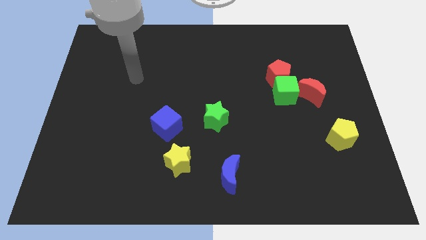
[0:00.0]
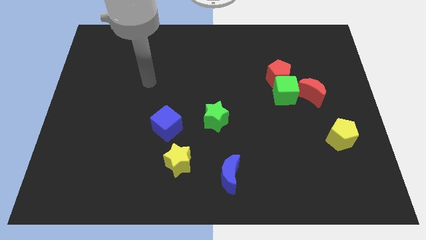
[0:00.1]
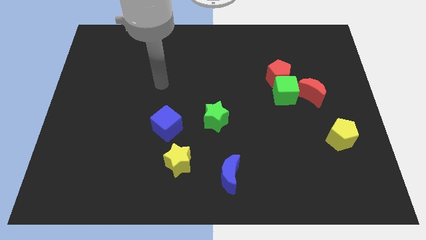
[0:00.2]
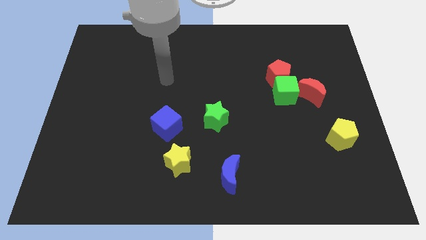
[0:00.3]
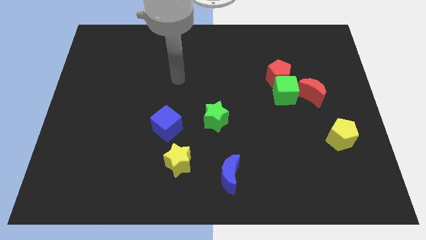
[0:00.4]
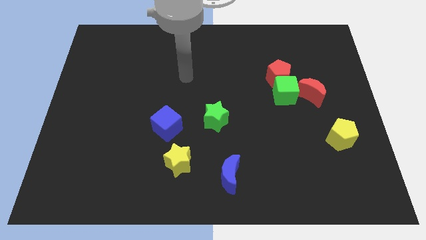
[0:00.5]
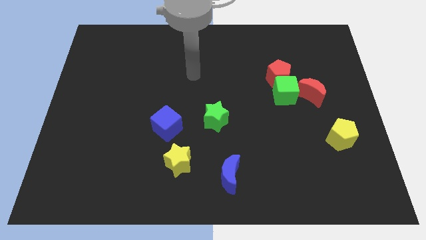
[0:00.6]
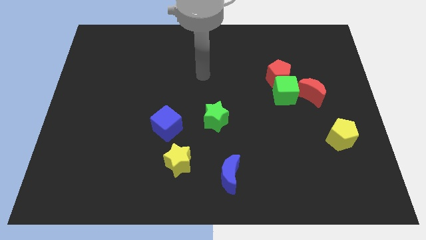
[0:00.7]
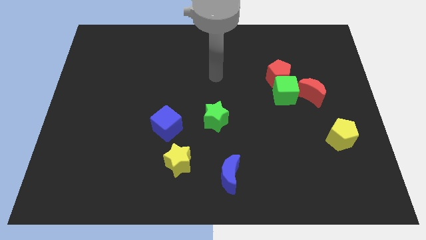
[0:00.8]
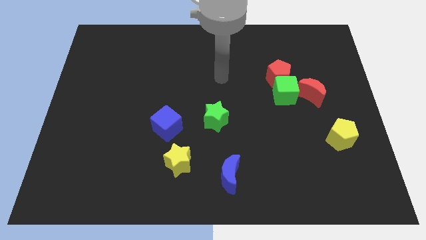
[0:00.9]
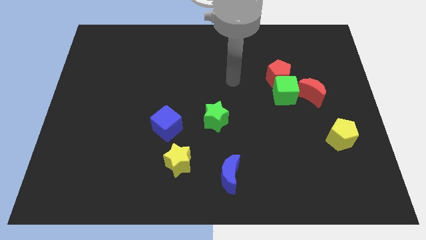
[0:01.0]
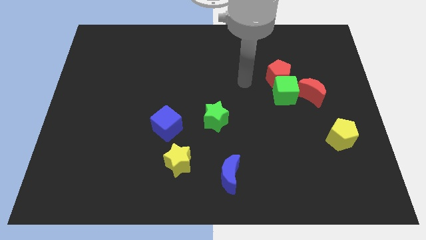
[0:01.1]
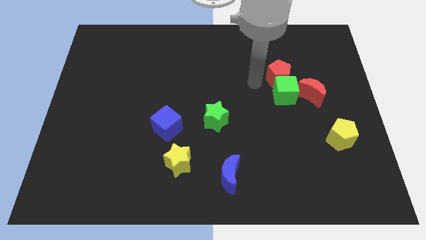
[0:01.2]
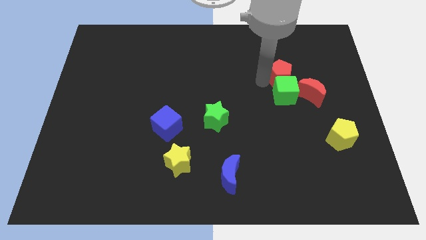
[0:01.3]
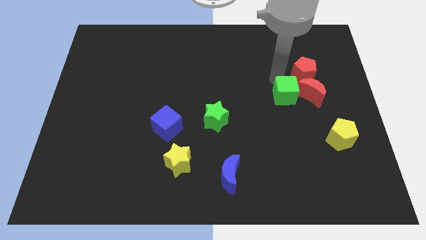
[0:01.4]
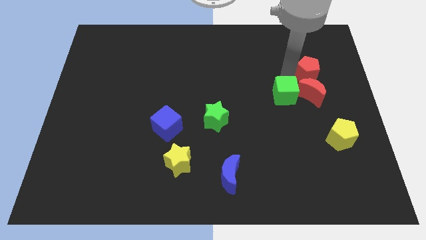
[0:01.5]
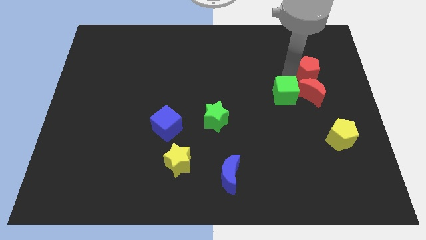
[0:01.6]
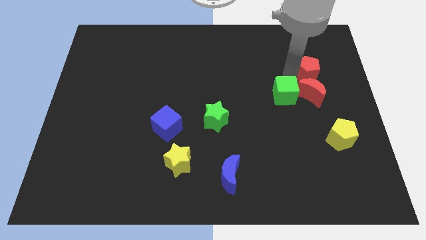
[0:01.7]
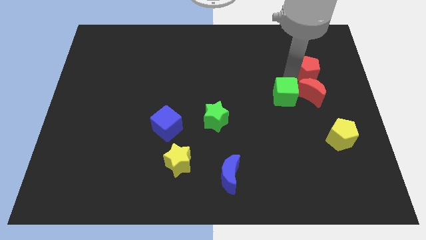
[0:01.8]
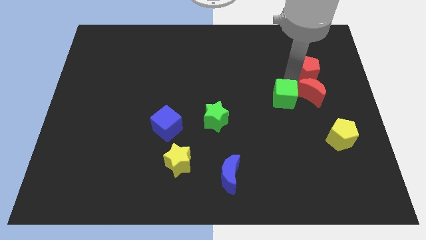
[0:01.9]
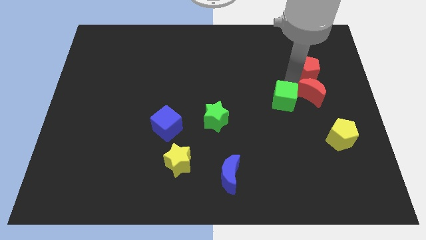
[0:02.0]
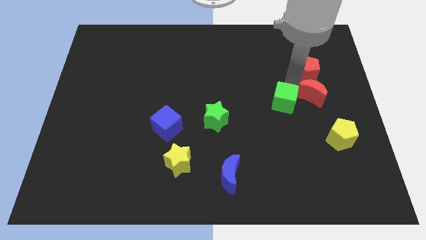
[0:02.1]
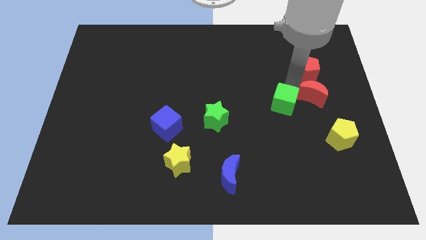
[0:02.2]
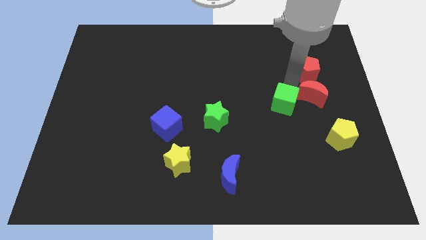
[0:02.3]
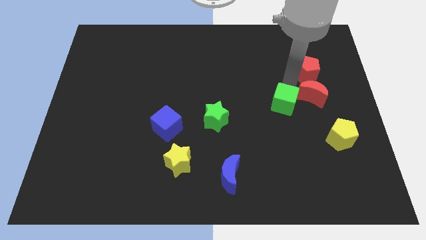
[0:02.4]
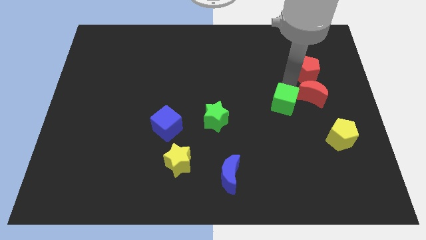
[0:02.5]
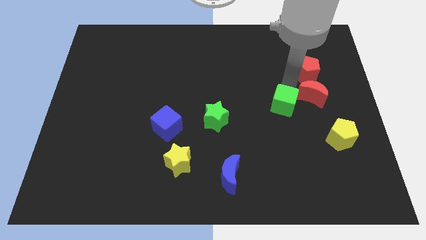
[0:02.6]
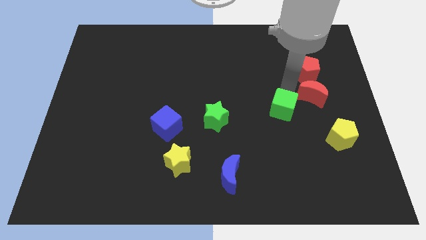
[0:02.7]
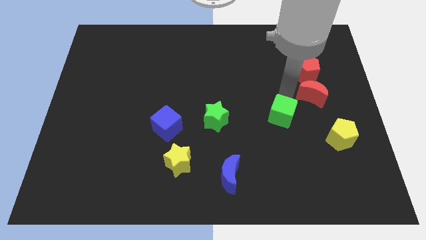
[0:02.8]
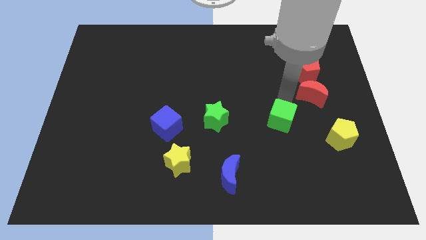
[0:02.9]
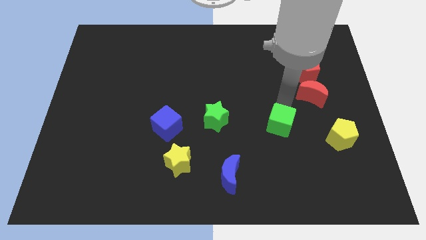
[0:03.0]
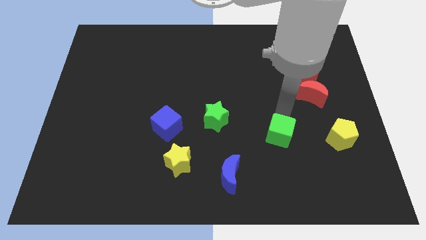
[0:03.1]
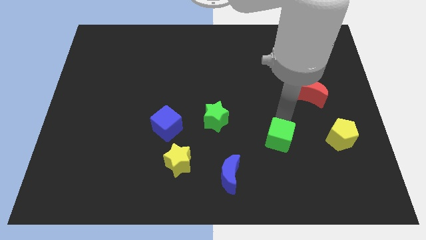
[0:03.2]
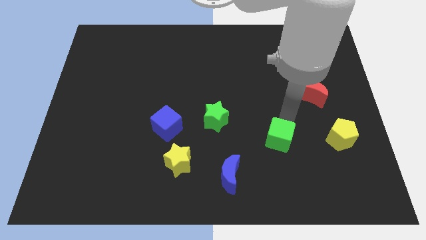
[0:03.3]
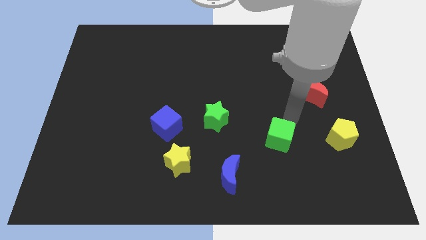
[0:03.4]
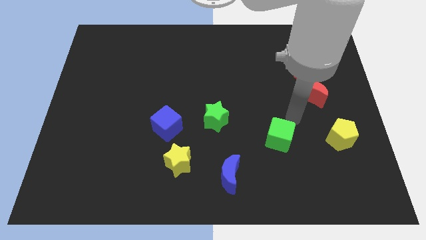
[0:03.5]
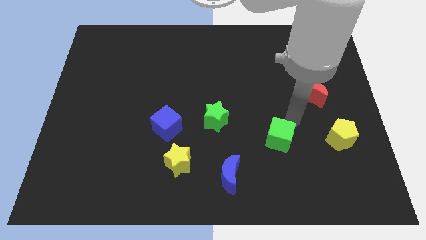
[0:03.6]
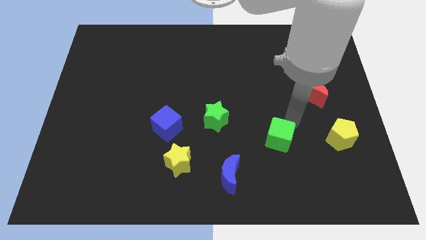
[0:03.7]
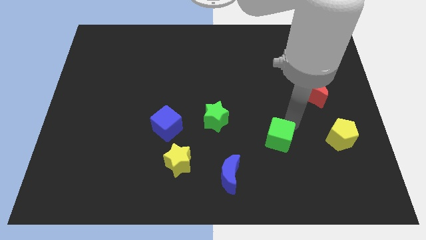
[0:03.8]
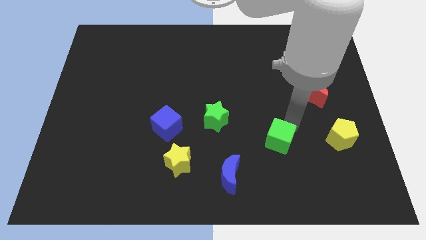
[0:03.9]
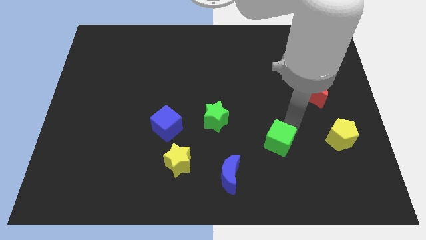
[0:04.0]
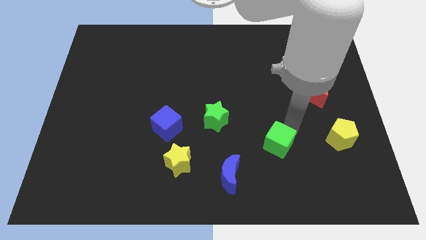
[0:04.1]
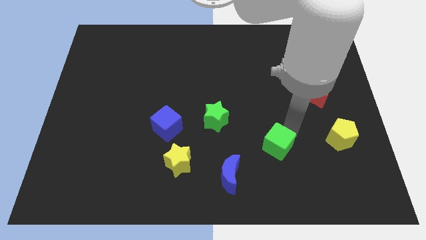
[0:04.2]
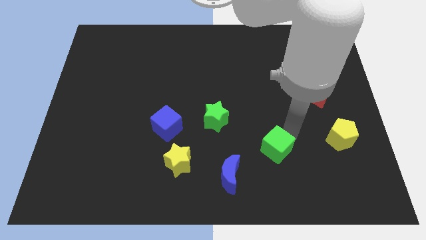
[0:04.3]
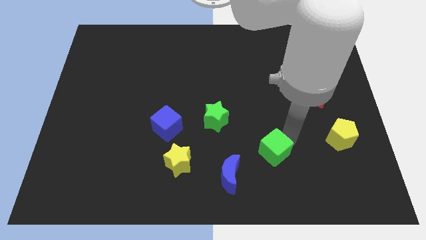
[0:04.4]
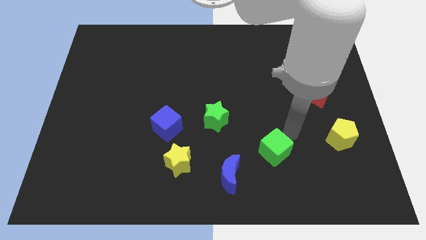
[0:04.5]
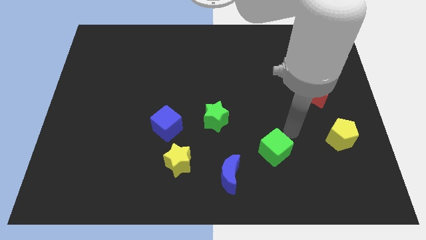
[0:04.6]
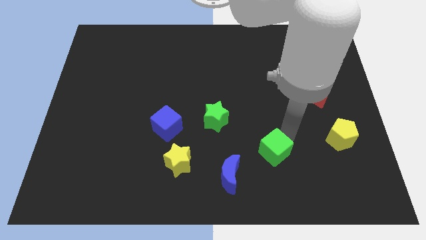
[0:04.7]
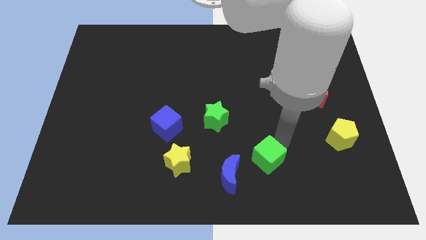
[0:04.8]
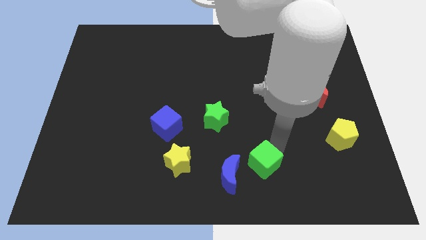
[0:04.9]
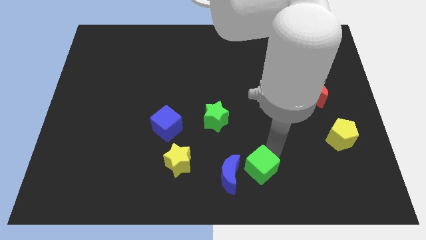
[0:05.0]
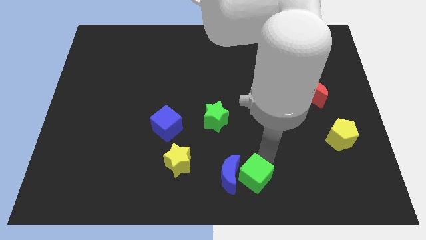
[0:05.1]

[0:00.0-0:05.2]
slide the green cube to the bottom

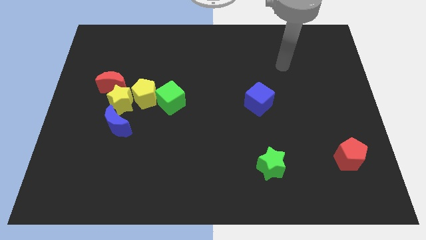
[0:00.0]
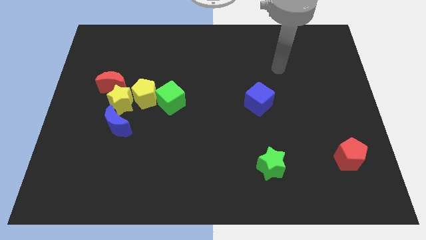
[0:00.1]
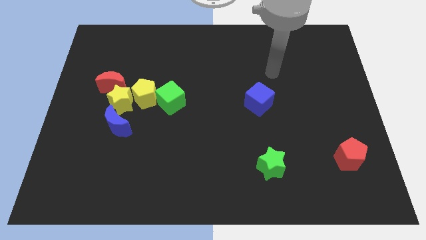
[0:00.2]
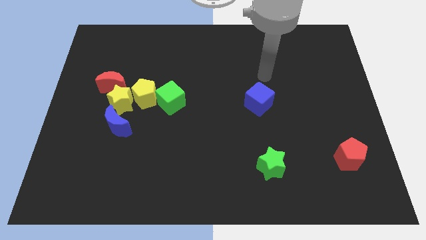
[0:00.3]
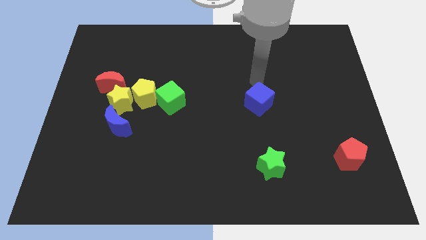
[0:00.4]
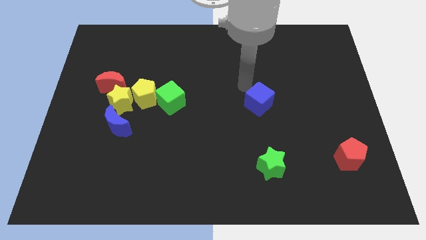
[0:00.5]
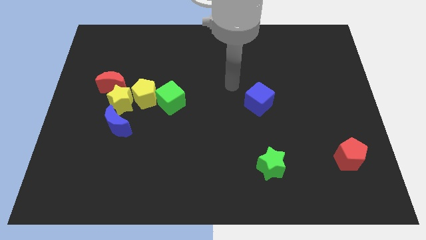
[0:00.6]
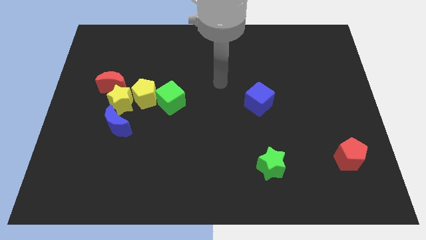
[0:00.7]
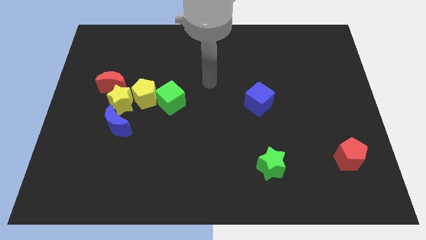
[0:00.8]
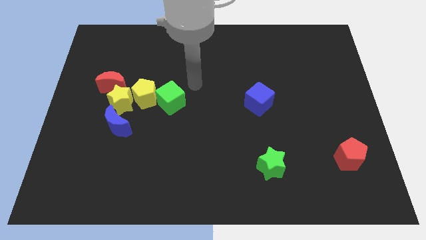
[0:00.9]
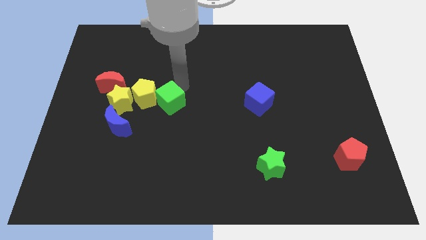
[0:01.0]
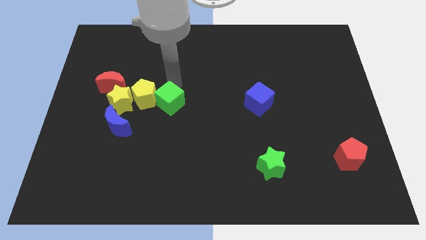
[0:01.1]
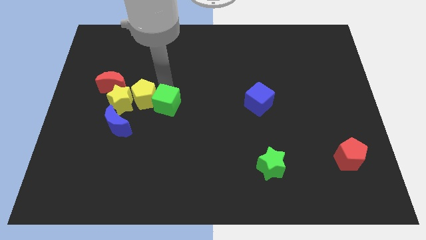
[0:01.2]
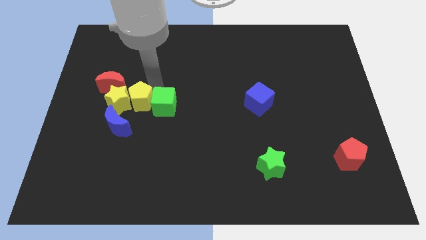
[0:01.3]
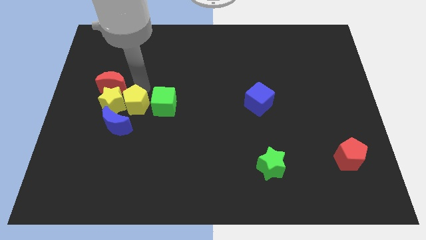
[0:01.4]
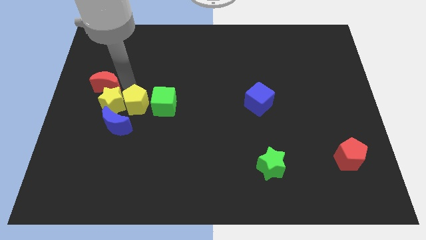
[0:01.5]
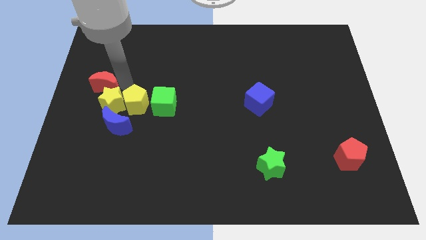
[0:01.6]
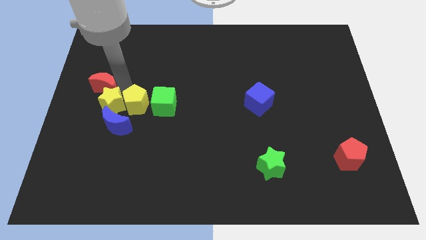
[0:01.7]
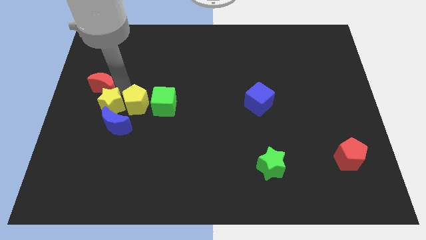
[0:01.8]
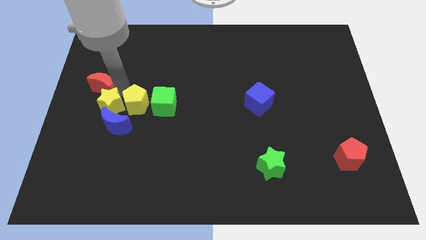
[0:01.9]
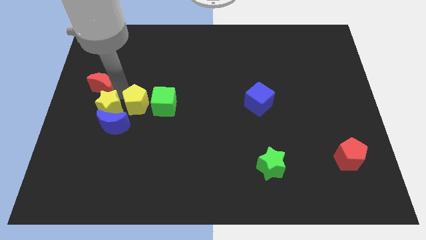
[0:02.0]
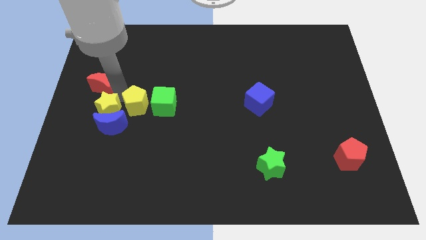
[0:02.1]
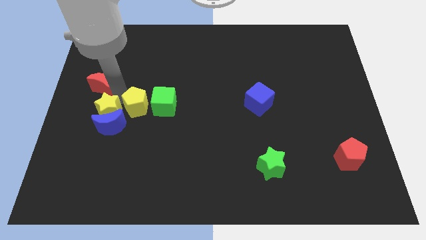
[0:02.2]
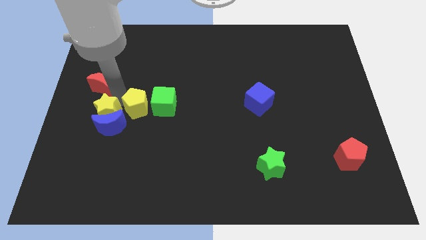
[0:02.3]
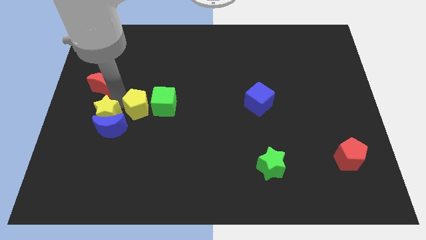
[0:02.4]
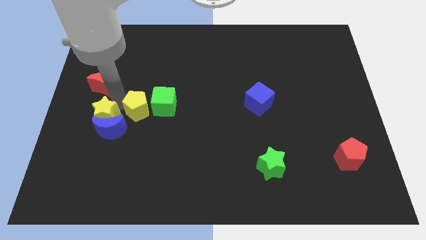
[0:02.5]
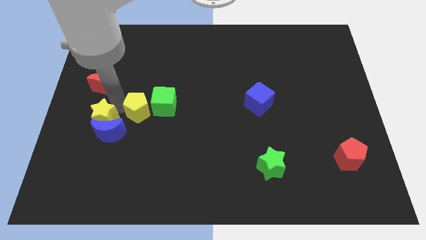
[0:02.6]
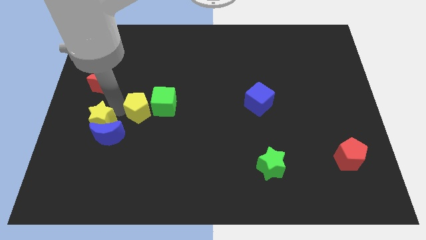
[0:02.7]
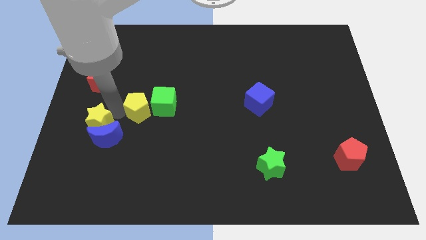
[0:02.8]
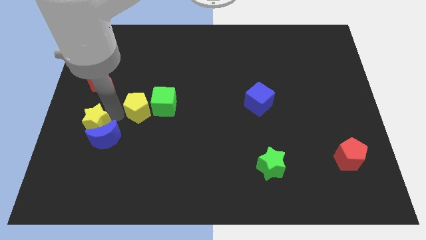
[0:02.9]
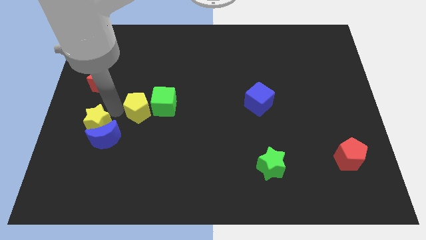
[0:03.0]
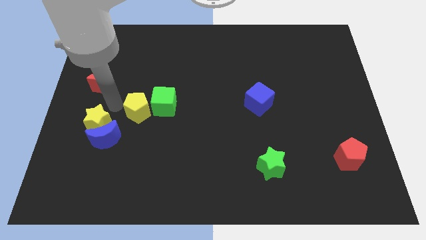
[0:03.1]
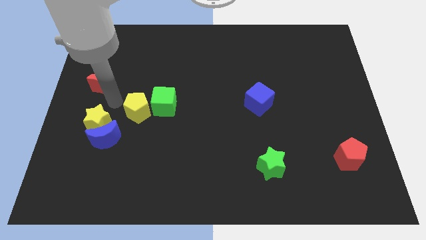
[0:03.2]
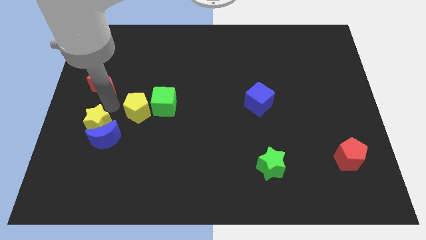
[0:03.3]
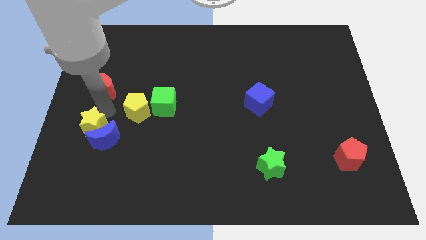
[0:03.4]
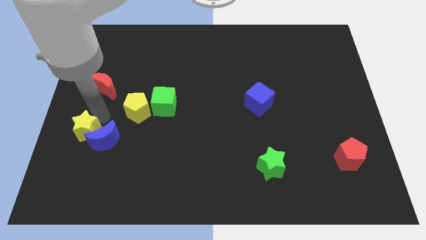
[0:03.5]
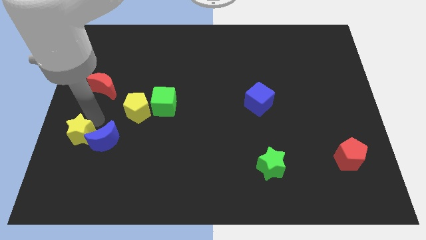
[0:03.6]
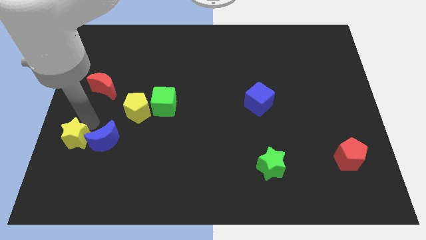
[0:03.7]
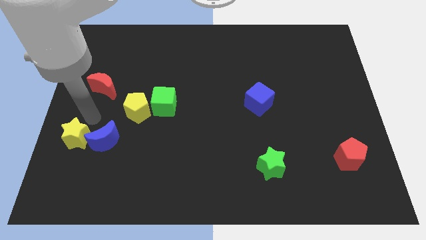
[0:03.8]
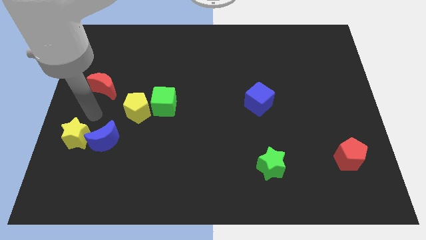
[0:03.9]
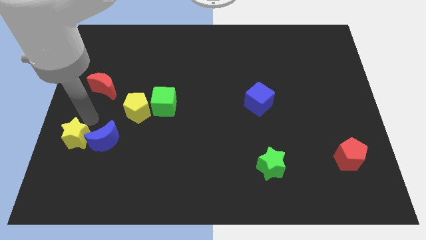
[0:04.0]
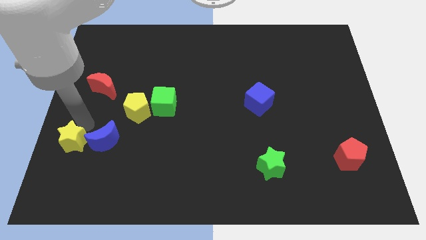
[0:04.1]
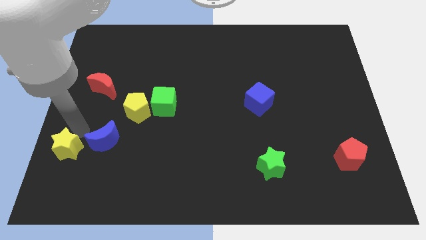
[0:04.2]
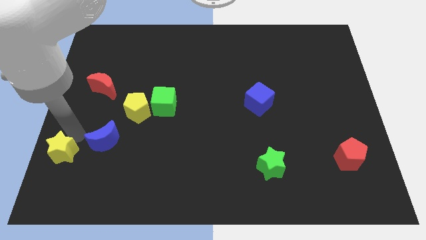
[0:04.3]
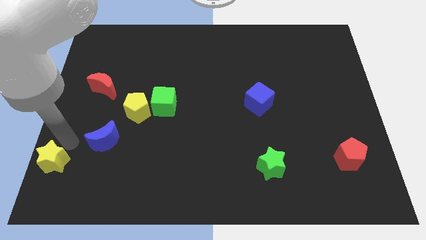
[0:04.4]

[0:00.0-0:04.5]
move the yellow star to the lower left corner
